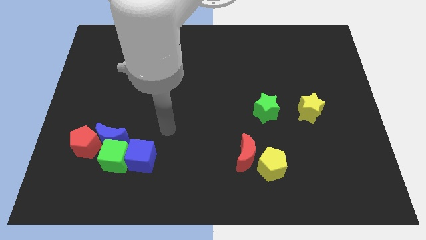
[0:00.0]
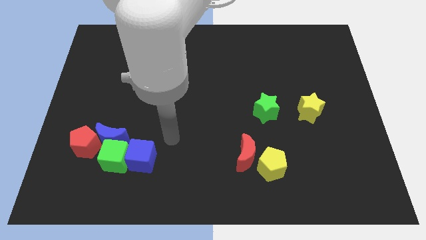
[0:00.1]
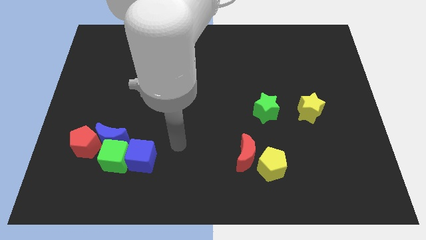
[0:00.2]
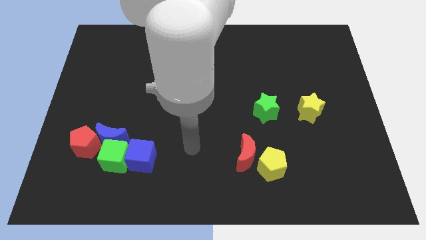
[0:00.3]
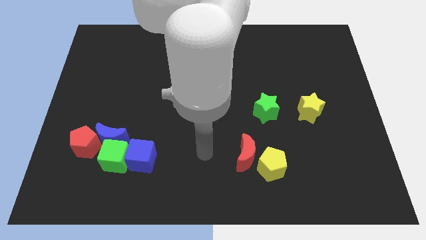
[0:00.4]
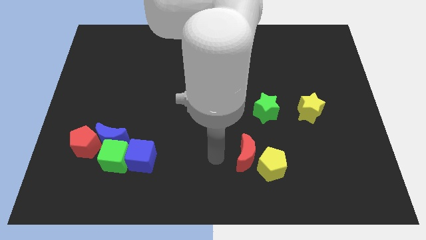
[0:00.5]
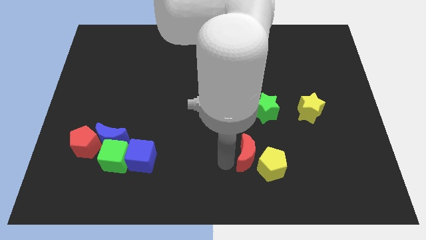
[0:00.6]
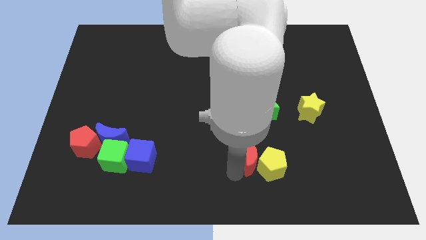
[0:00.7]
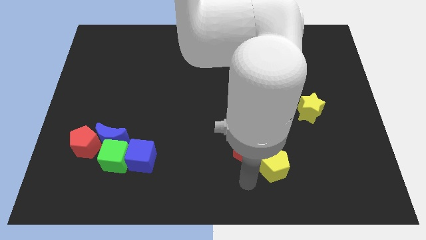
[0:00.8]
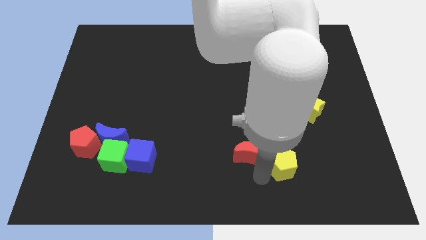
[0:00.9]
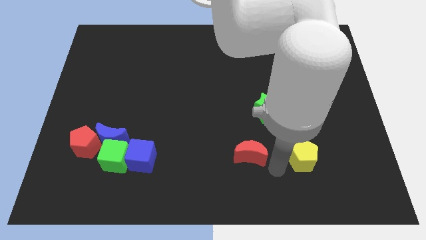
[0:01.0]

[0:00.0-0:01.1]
move the red moon away from the yellow pentagon

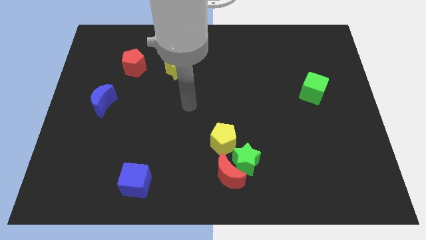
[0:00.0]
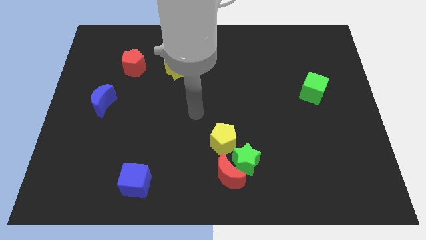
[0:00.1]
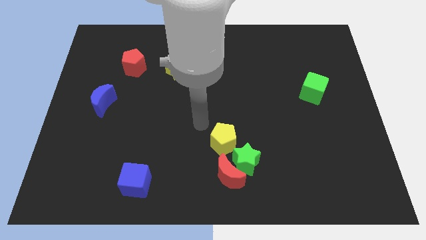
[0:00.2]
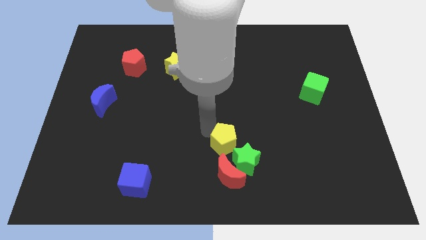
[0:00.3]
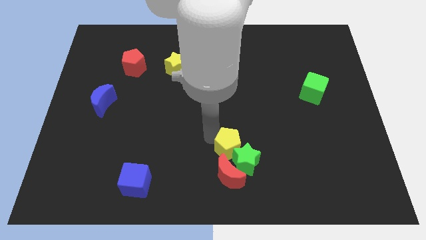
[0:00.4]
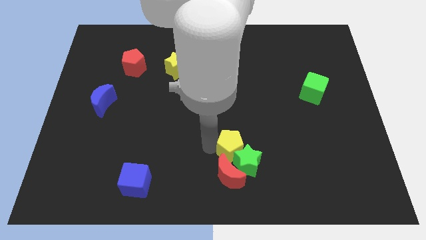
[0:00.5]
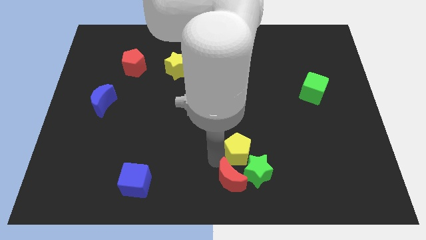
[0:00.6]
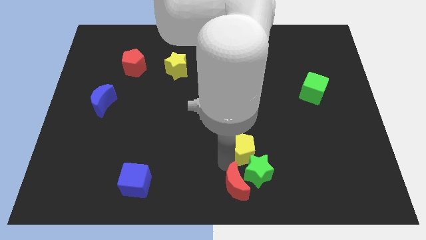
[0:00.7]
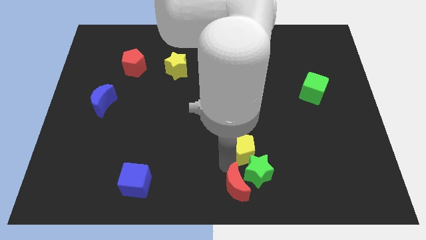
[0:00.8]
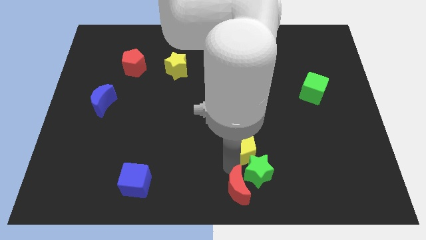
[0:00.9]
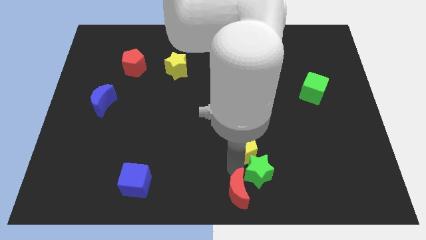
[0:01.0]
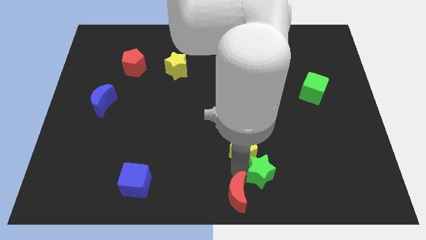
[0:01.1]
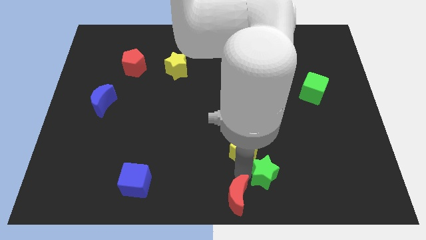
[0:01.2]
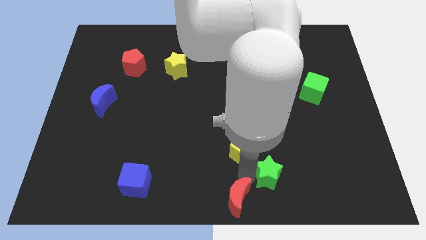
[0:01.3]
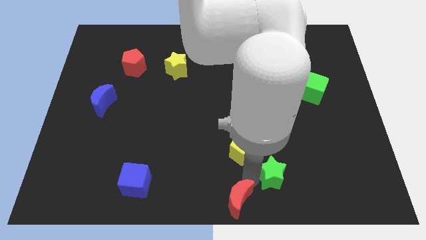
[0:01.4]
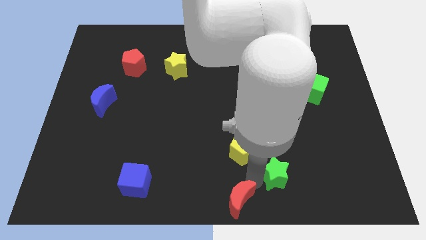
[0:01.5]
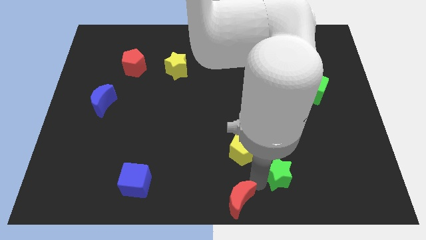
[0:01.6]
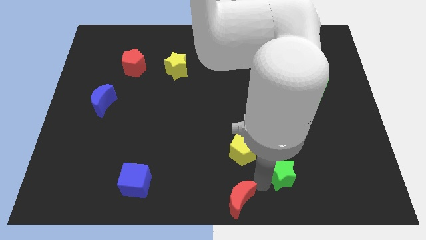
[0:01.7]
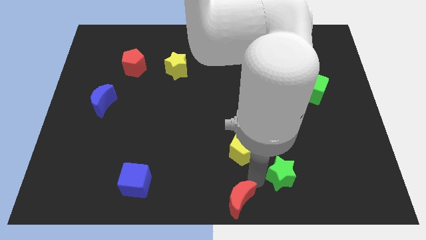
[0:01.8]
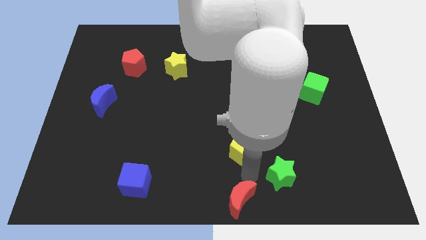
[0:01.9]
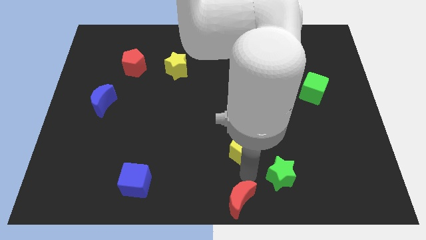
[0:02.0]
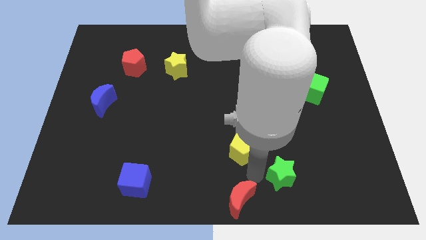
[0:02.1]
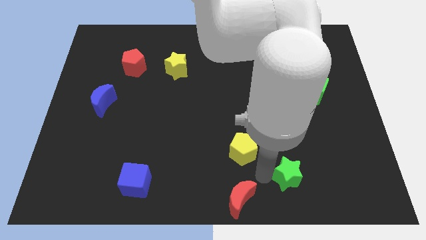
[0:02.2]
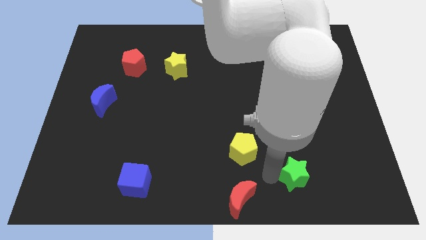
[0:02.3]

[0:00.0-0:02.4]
separate the green star from the red moon and yellow pentagon

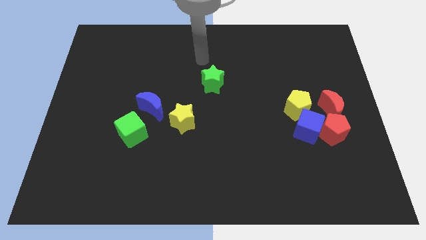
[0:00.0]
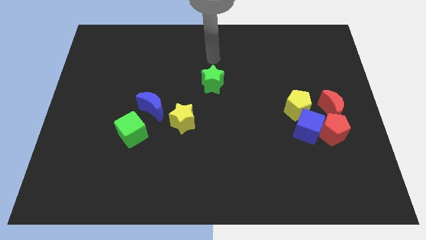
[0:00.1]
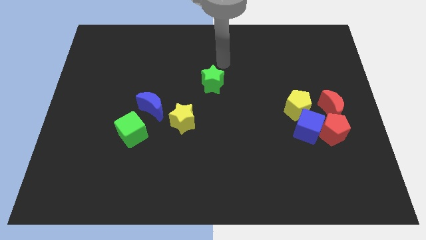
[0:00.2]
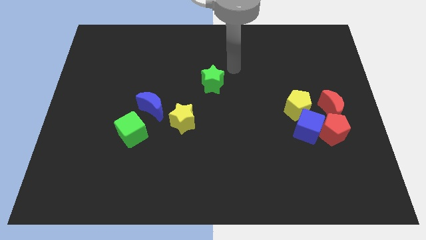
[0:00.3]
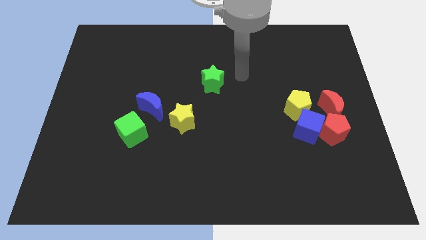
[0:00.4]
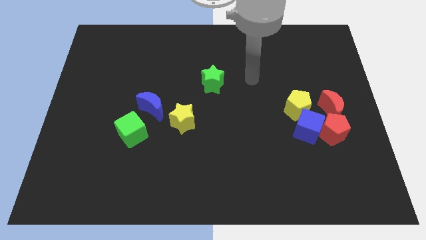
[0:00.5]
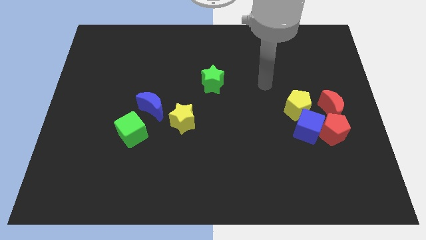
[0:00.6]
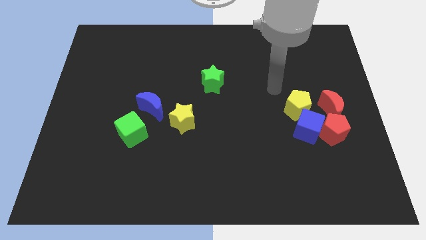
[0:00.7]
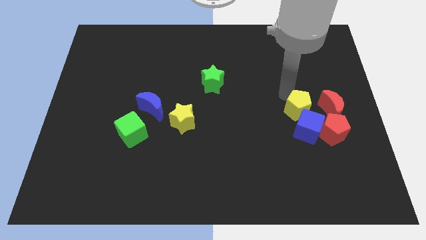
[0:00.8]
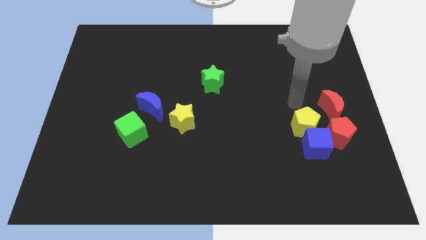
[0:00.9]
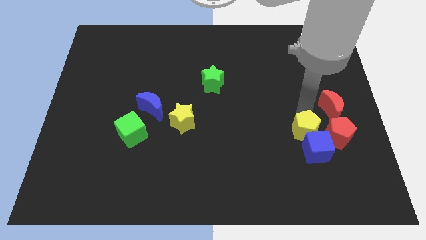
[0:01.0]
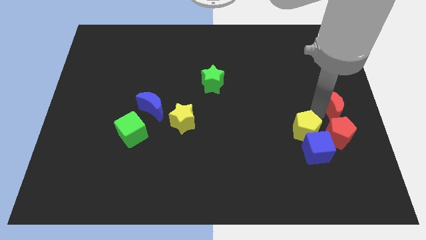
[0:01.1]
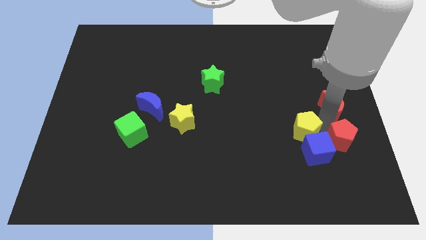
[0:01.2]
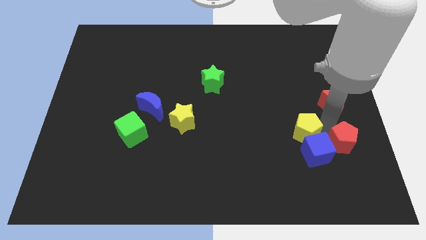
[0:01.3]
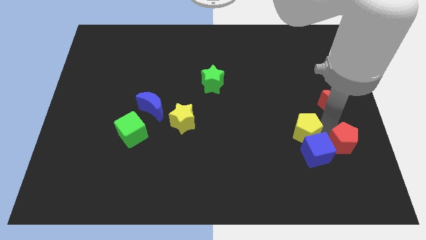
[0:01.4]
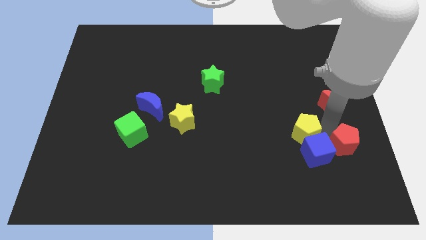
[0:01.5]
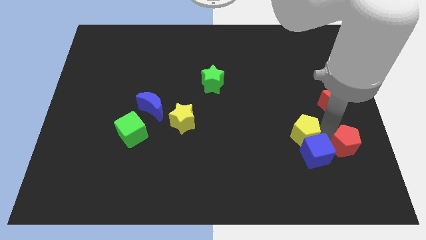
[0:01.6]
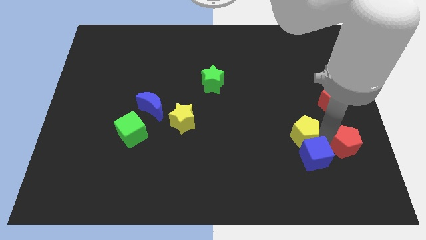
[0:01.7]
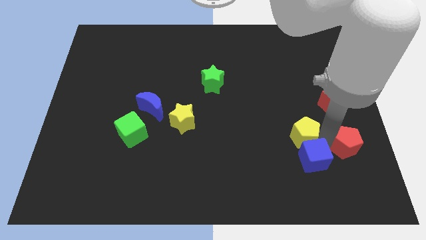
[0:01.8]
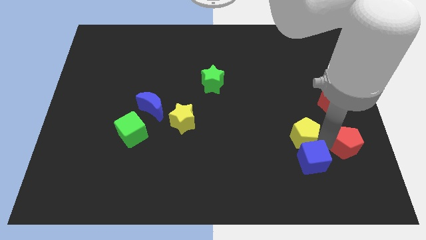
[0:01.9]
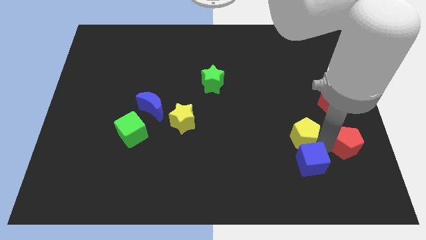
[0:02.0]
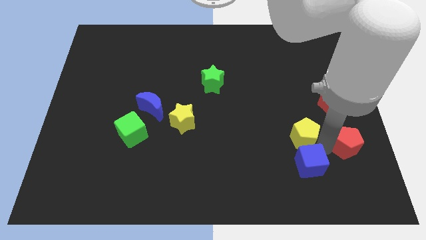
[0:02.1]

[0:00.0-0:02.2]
move the blue cube away from the red pentagon, yellow pentagon, and red moon

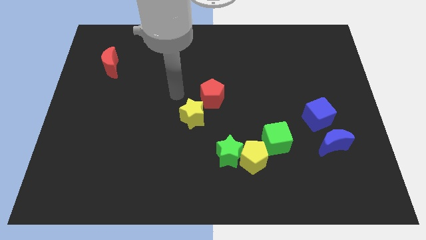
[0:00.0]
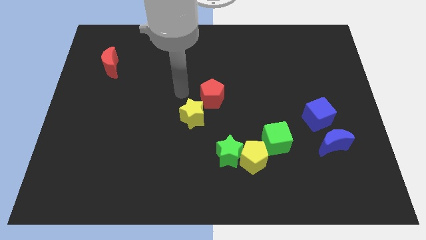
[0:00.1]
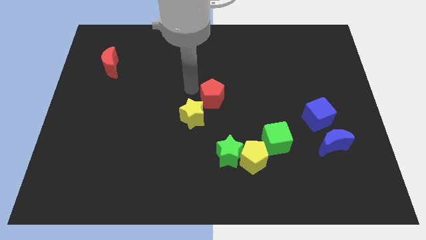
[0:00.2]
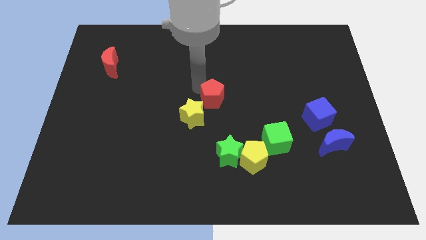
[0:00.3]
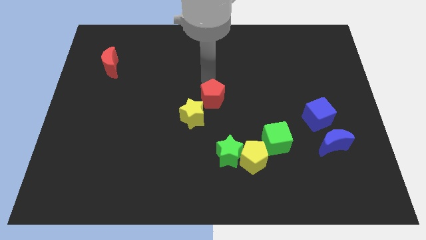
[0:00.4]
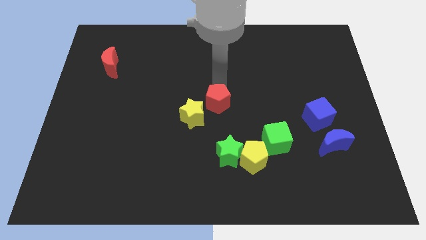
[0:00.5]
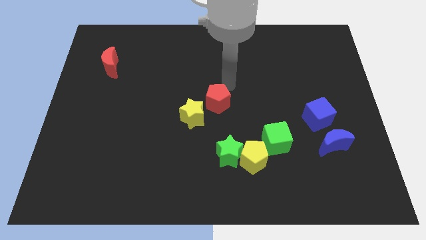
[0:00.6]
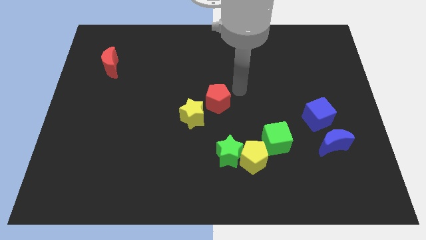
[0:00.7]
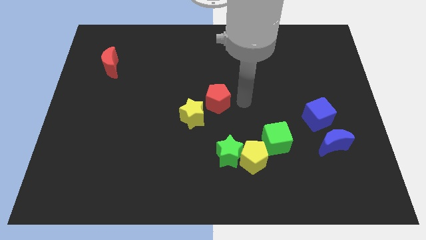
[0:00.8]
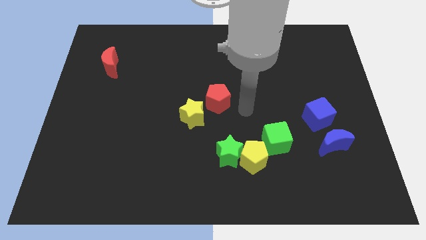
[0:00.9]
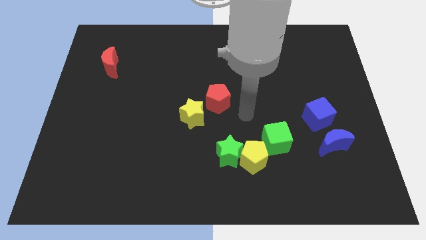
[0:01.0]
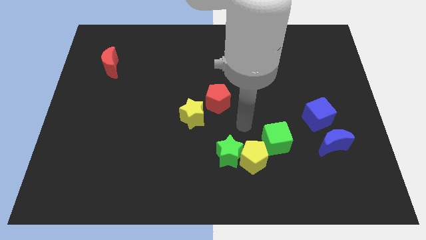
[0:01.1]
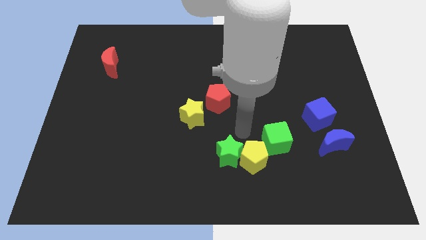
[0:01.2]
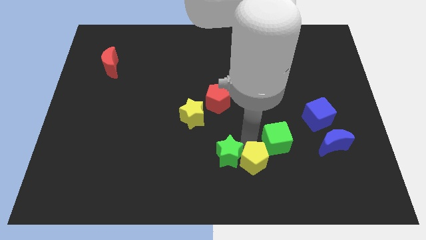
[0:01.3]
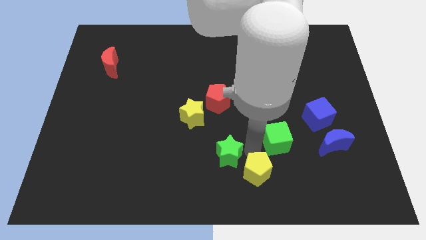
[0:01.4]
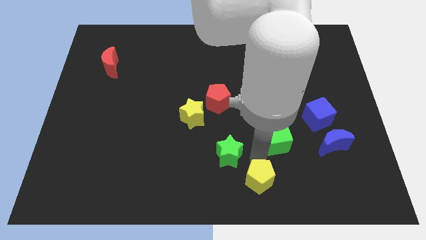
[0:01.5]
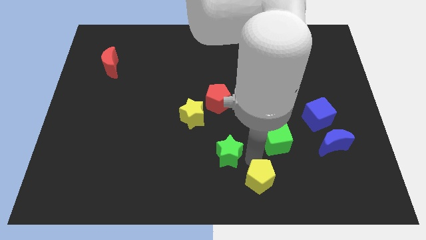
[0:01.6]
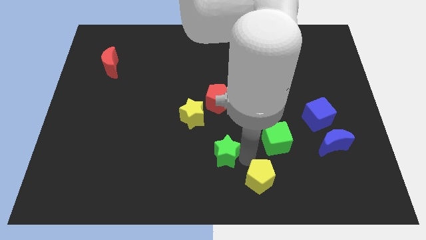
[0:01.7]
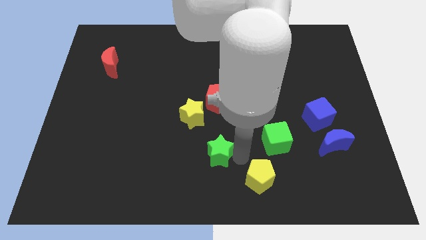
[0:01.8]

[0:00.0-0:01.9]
move the green star away from the yellow pentagon

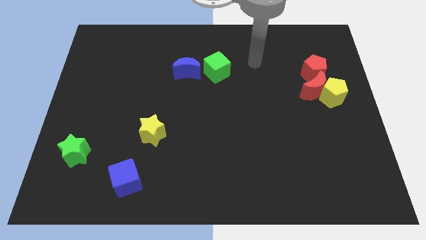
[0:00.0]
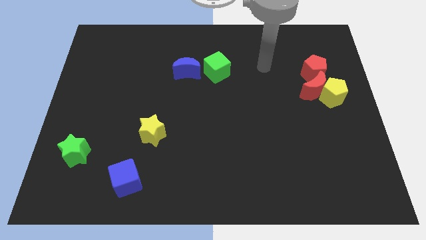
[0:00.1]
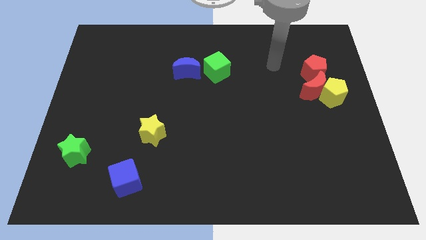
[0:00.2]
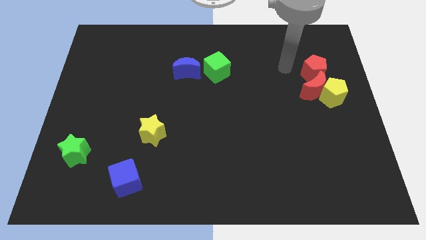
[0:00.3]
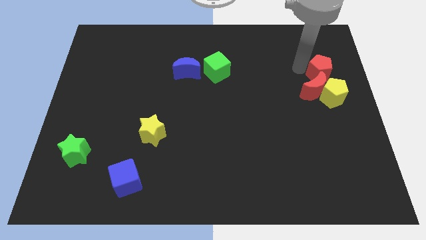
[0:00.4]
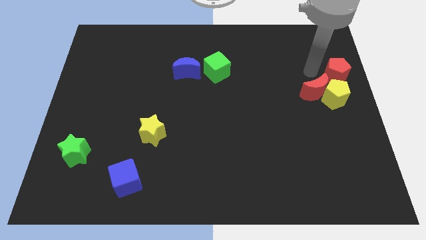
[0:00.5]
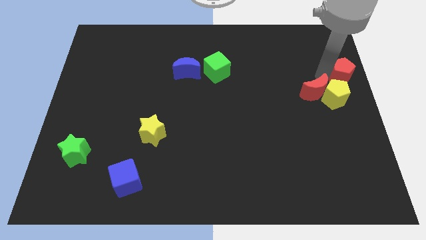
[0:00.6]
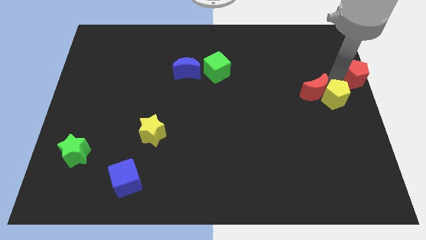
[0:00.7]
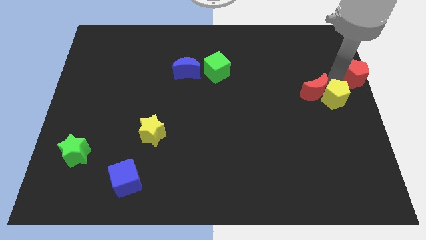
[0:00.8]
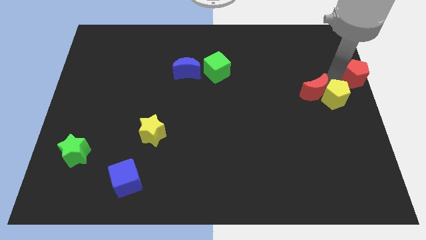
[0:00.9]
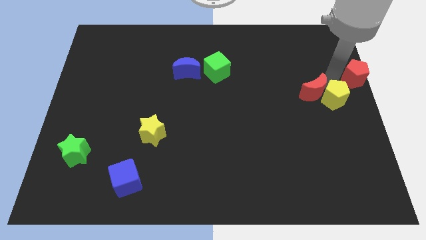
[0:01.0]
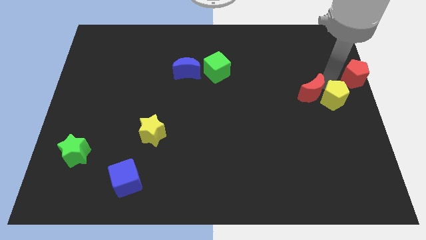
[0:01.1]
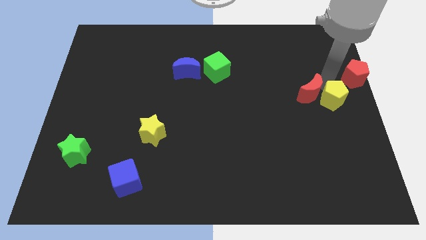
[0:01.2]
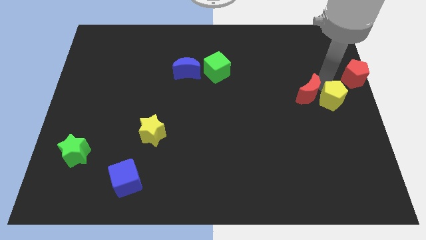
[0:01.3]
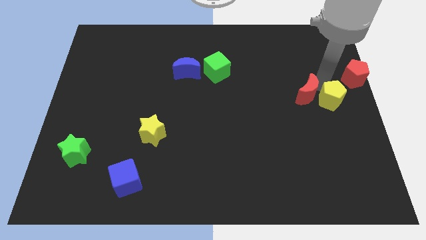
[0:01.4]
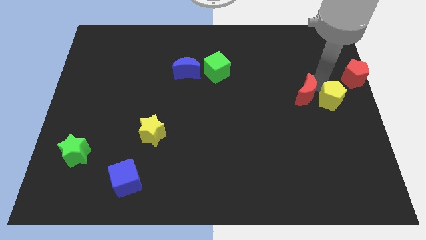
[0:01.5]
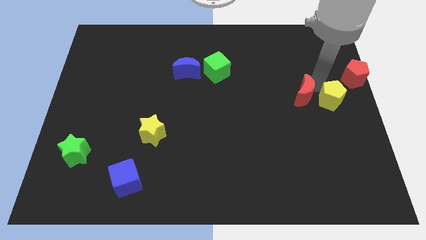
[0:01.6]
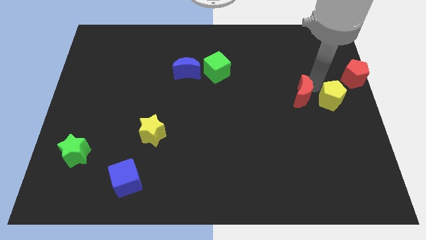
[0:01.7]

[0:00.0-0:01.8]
move the red moon away from the yellow pentagon and red pentagon

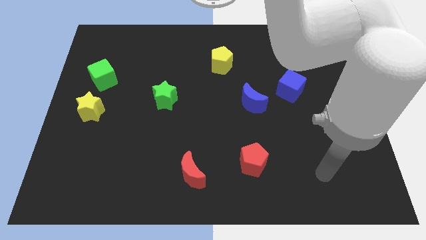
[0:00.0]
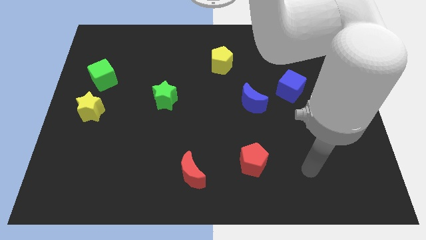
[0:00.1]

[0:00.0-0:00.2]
move the green cube away from the yellow star
